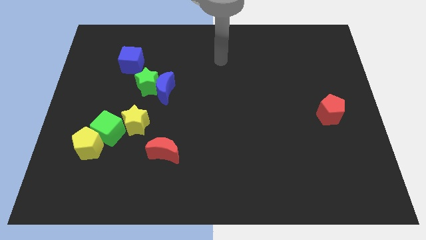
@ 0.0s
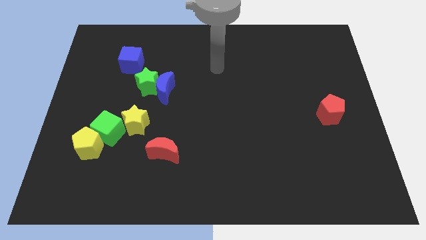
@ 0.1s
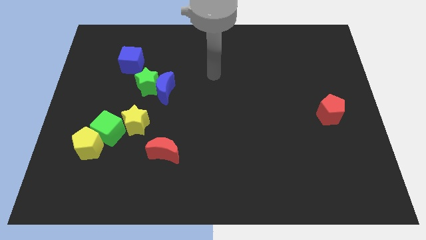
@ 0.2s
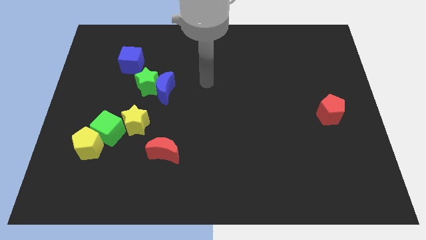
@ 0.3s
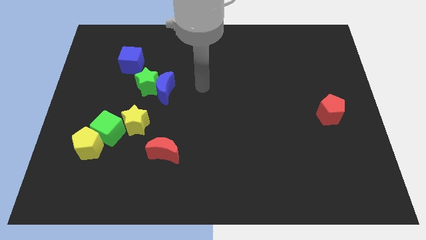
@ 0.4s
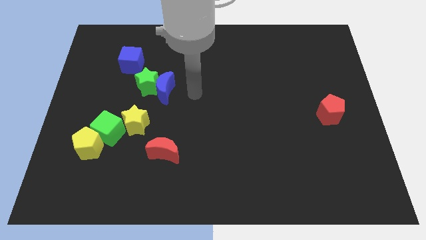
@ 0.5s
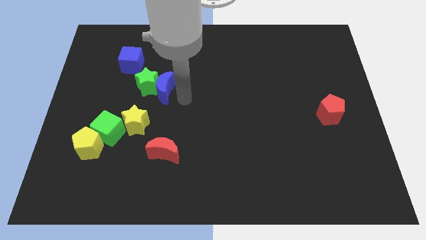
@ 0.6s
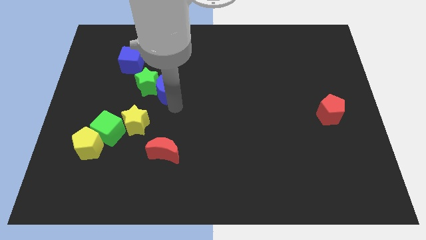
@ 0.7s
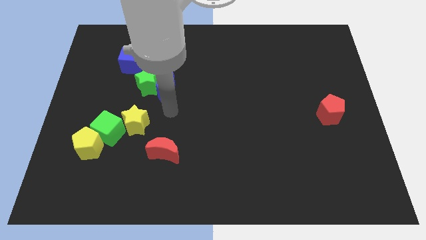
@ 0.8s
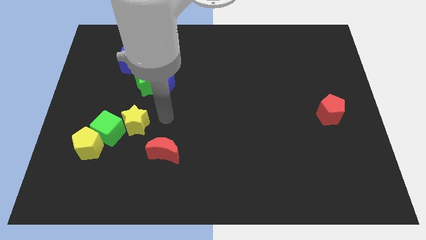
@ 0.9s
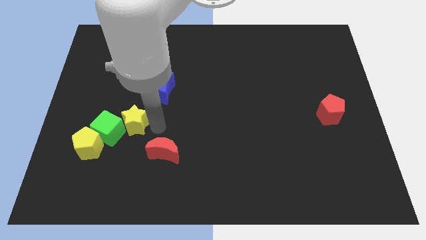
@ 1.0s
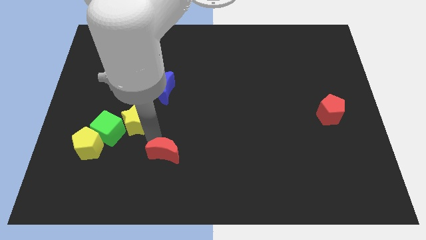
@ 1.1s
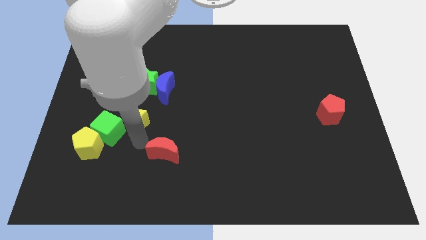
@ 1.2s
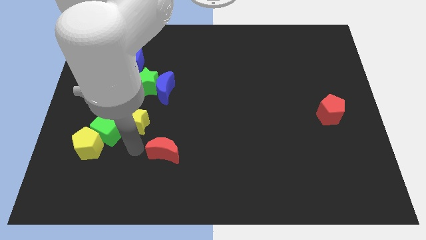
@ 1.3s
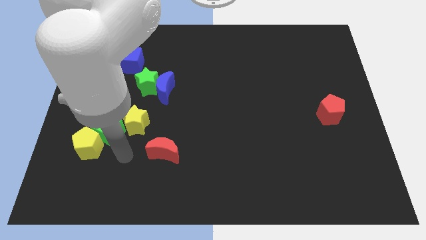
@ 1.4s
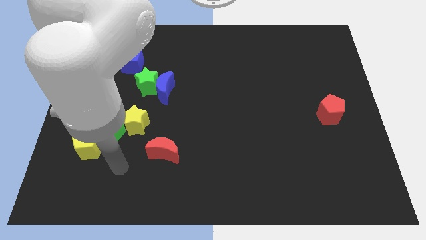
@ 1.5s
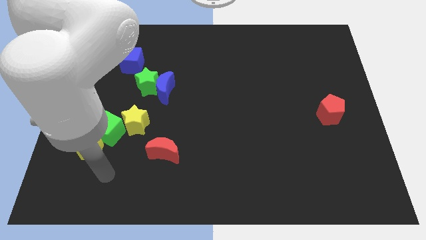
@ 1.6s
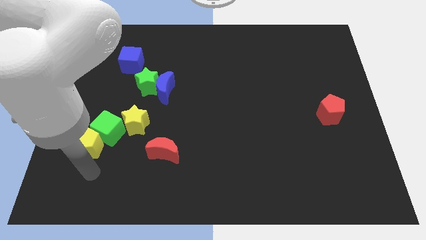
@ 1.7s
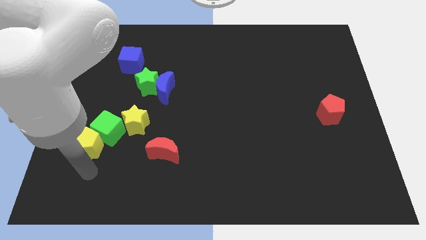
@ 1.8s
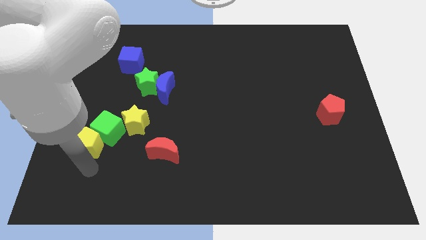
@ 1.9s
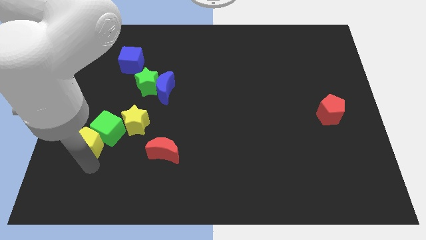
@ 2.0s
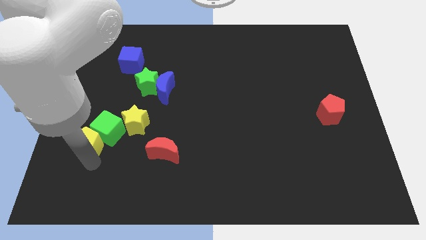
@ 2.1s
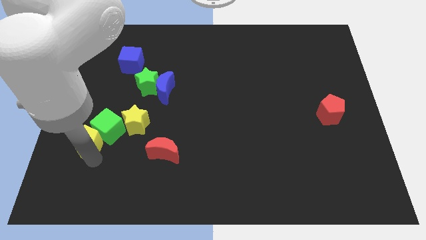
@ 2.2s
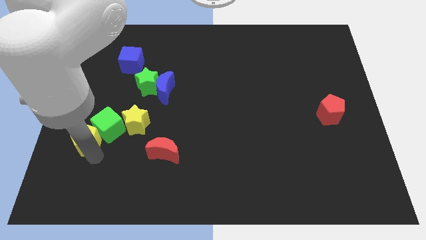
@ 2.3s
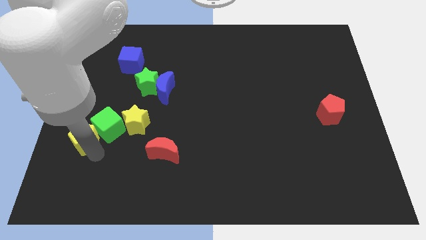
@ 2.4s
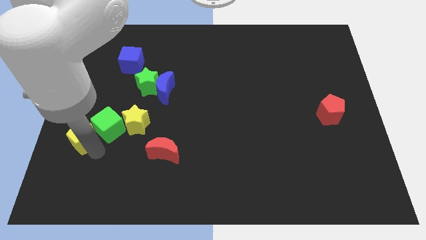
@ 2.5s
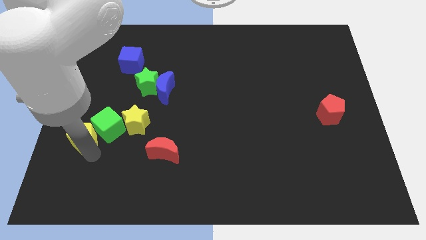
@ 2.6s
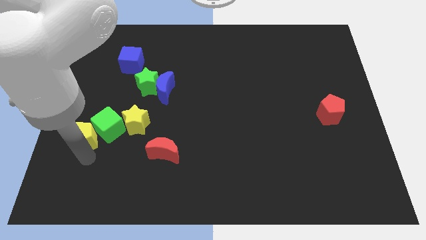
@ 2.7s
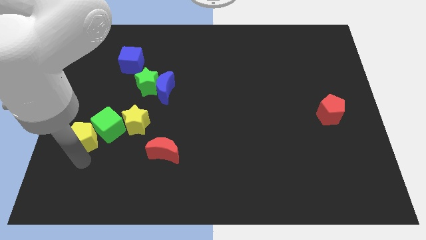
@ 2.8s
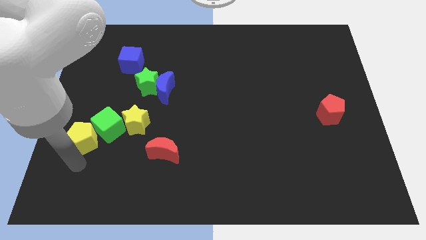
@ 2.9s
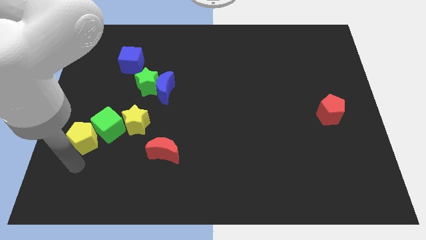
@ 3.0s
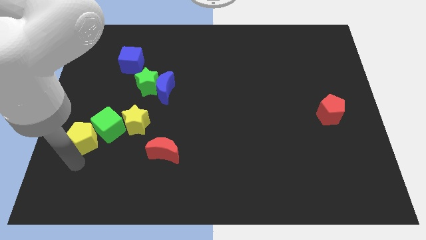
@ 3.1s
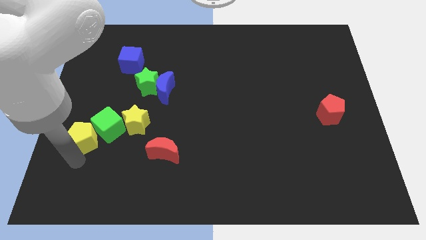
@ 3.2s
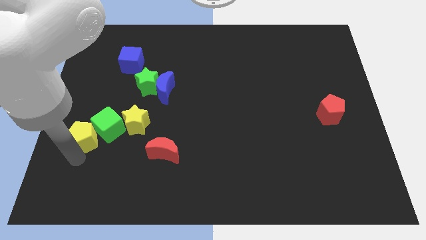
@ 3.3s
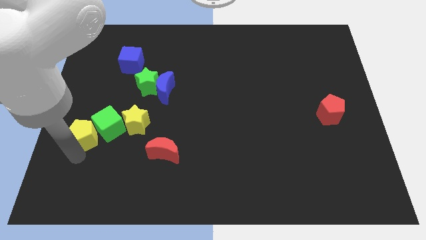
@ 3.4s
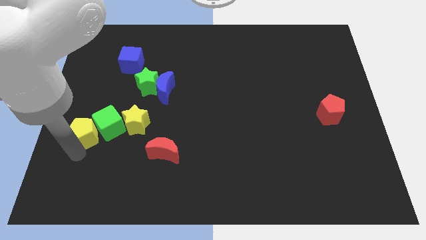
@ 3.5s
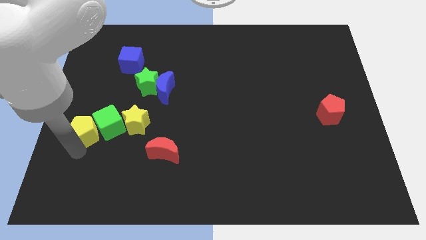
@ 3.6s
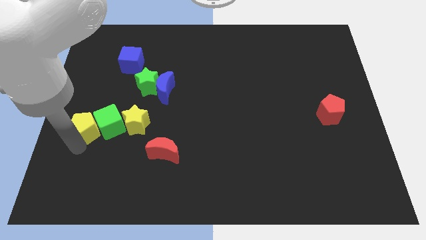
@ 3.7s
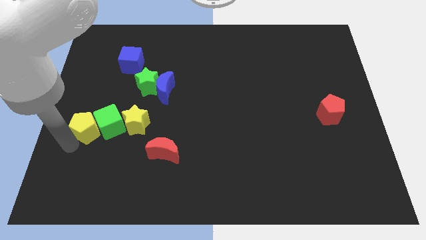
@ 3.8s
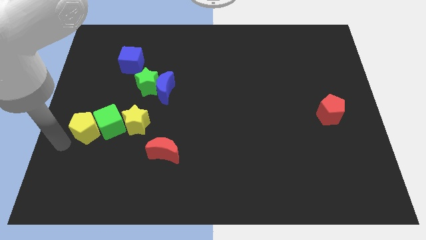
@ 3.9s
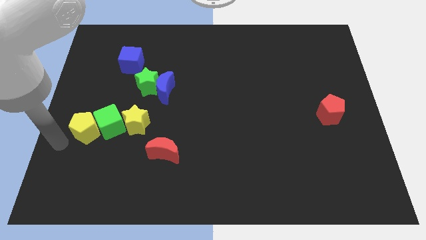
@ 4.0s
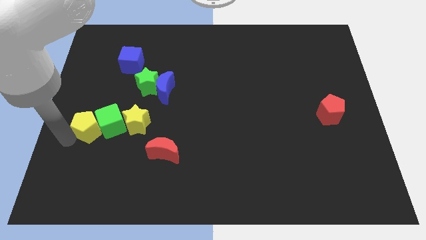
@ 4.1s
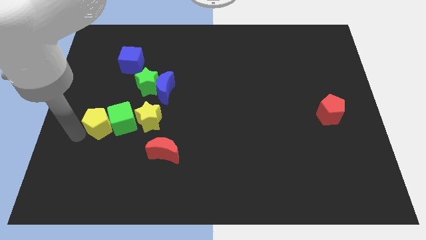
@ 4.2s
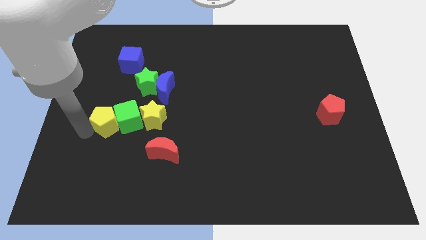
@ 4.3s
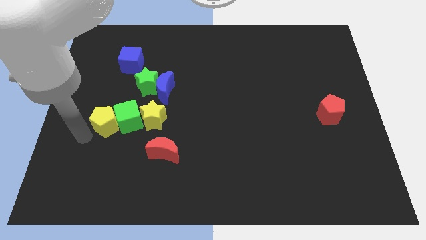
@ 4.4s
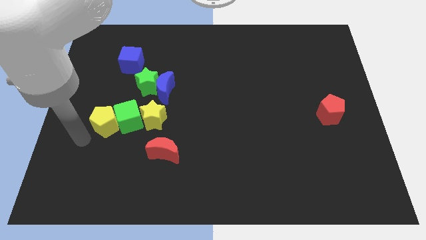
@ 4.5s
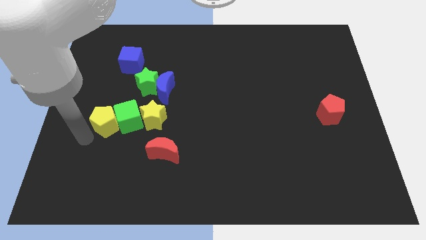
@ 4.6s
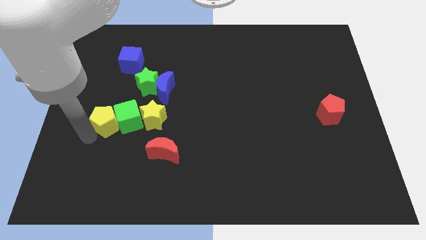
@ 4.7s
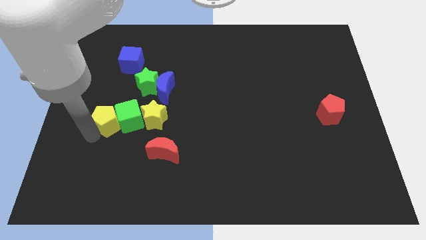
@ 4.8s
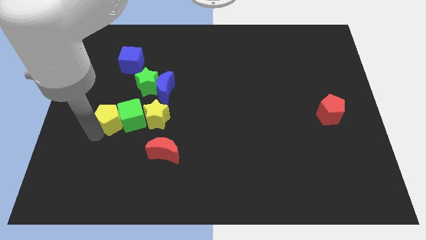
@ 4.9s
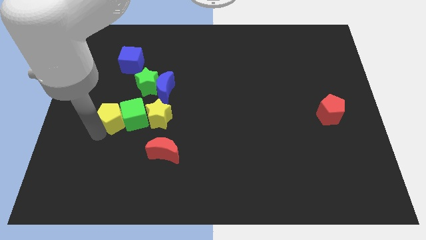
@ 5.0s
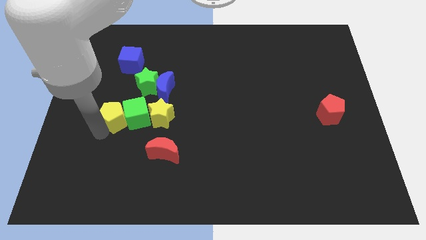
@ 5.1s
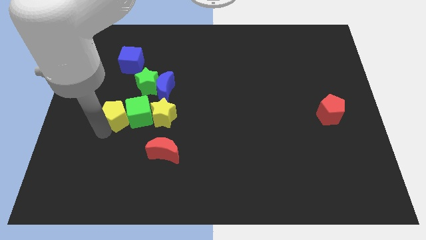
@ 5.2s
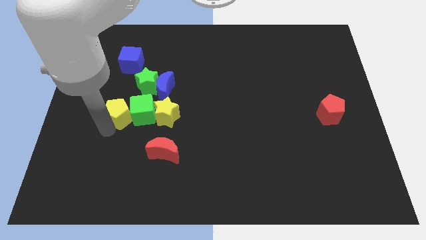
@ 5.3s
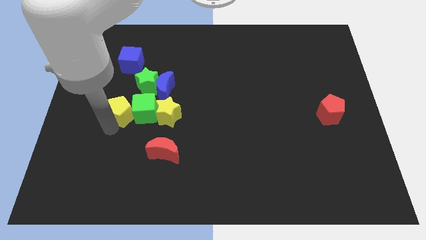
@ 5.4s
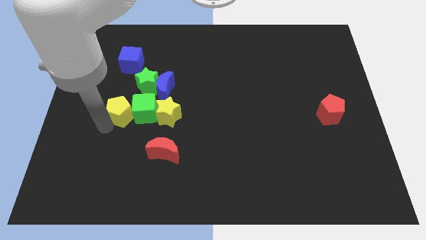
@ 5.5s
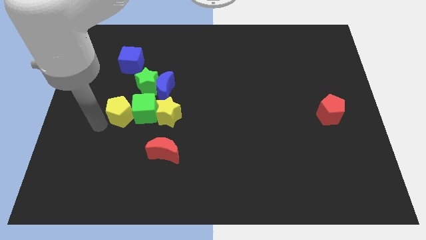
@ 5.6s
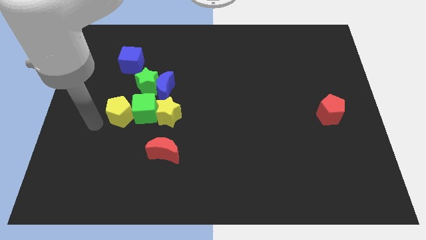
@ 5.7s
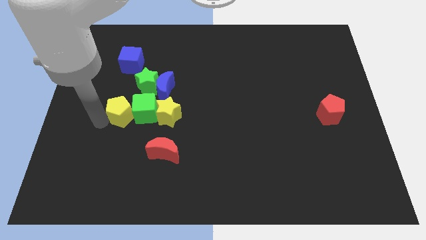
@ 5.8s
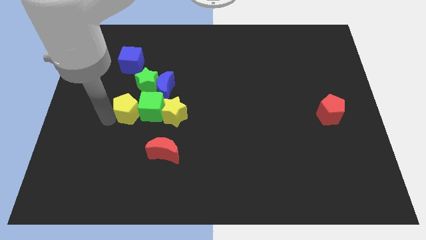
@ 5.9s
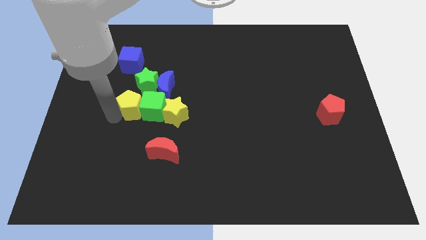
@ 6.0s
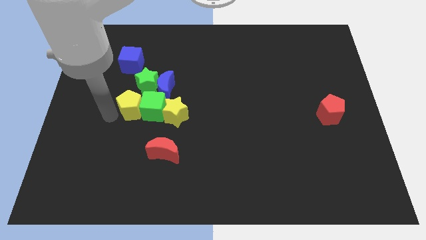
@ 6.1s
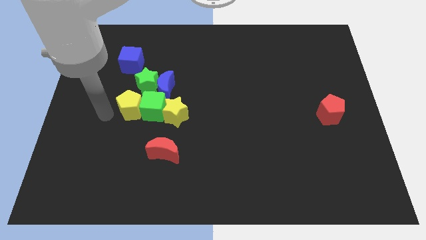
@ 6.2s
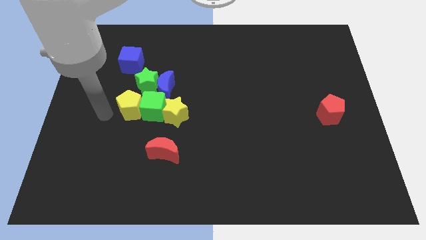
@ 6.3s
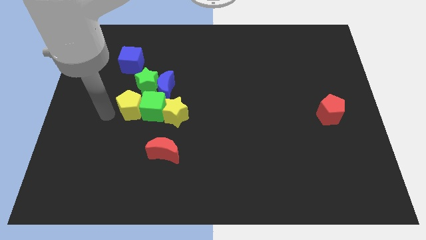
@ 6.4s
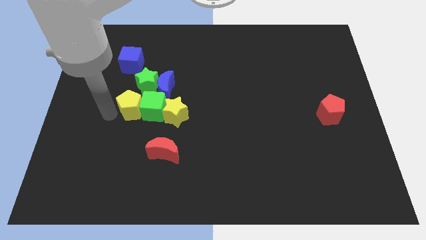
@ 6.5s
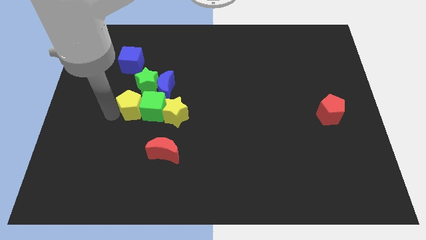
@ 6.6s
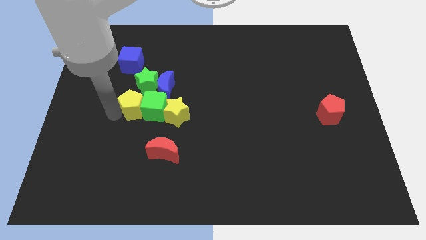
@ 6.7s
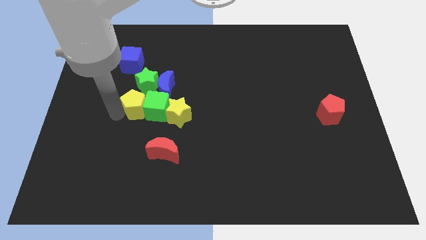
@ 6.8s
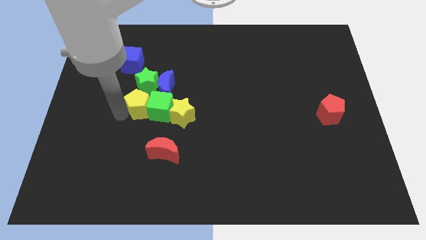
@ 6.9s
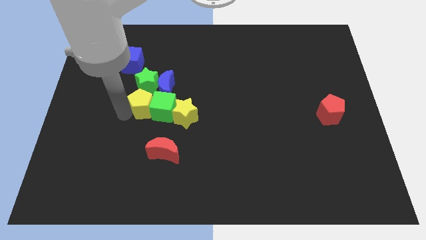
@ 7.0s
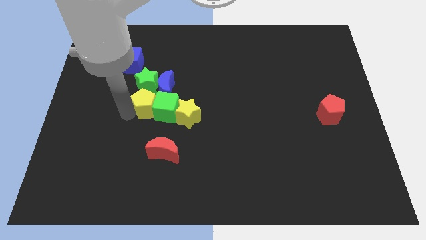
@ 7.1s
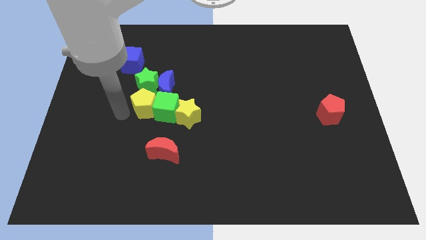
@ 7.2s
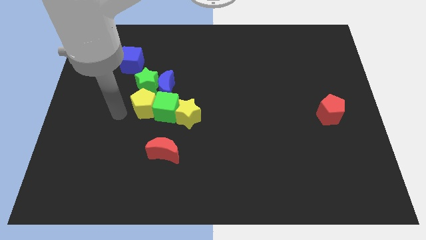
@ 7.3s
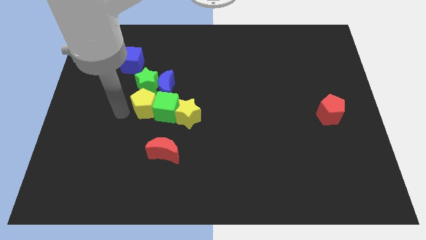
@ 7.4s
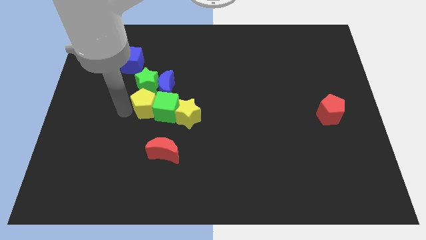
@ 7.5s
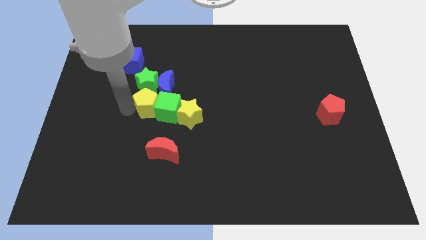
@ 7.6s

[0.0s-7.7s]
put the yellow pentagon to the blue moon

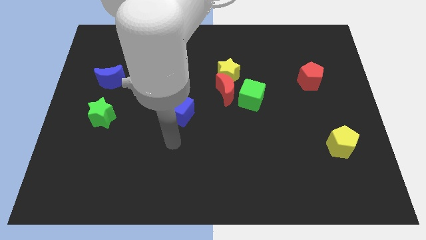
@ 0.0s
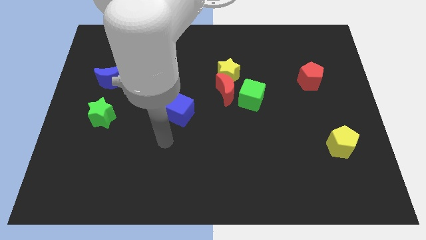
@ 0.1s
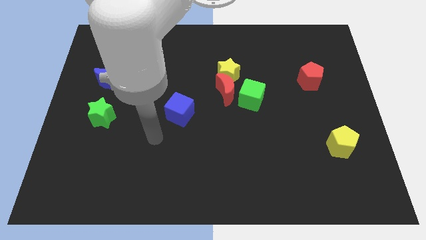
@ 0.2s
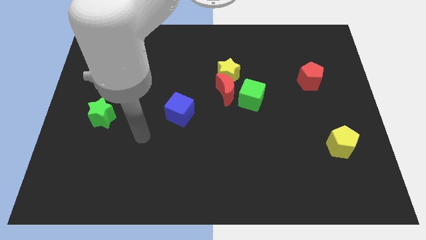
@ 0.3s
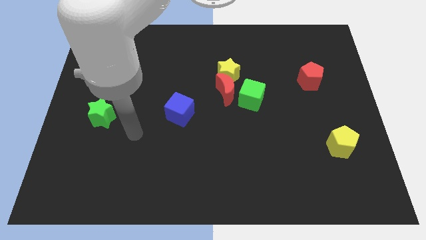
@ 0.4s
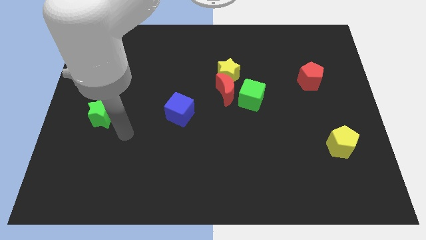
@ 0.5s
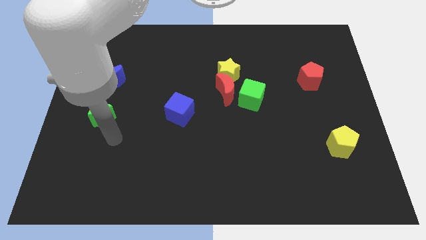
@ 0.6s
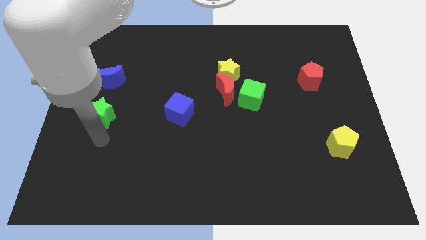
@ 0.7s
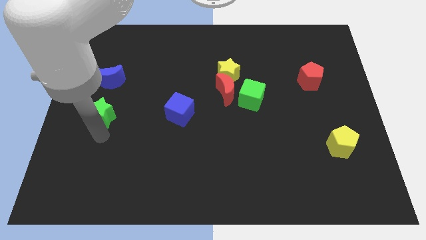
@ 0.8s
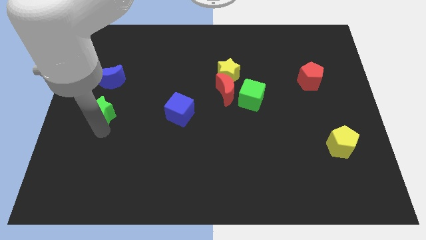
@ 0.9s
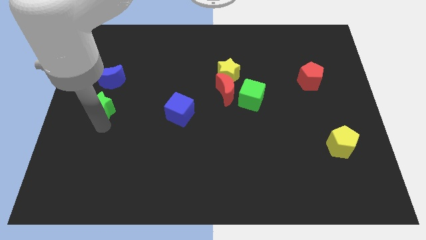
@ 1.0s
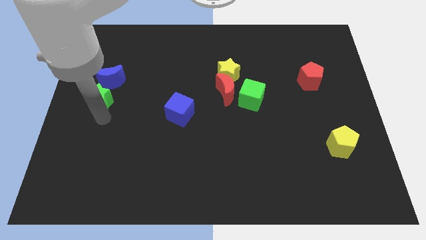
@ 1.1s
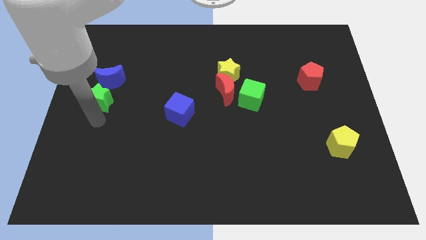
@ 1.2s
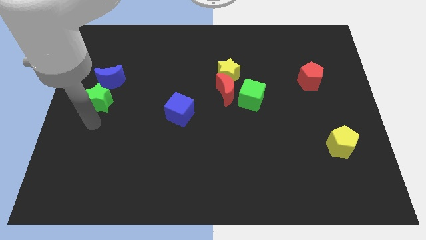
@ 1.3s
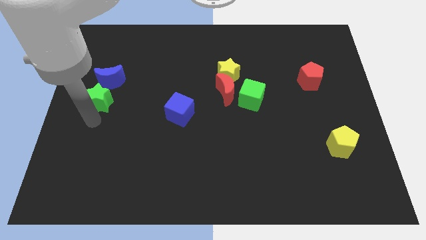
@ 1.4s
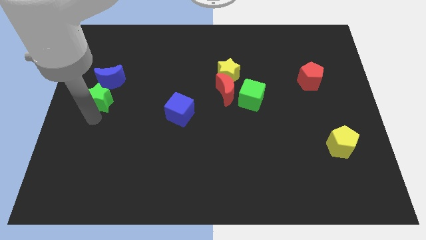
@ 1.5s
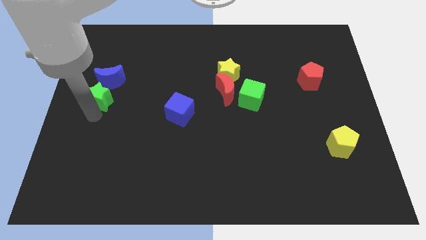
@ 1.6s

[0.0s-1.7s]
put the green star to the blue moon
